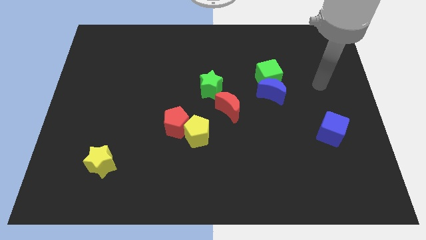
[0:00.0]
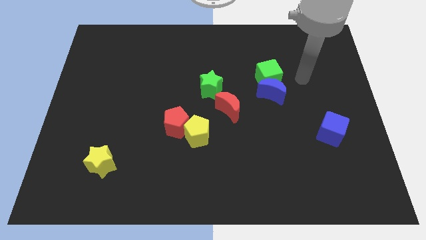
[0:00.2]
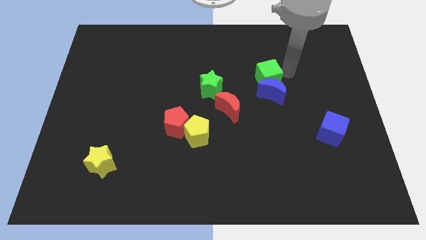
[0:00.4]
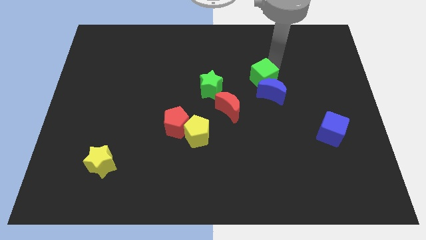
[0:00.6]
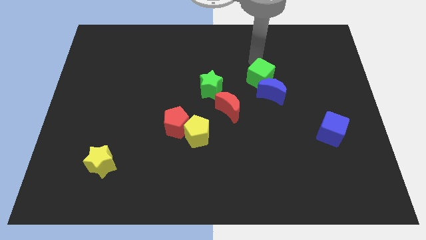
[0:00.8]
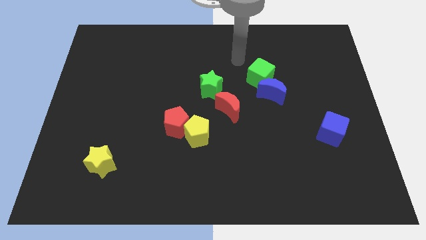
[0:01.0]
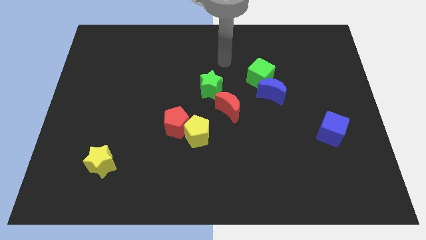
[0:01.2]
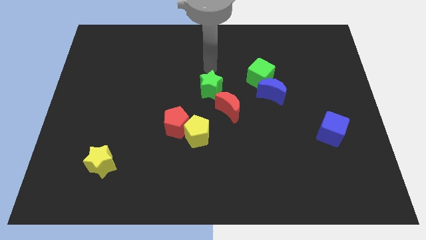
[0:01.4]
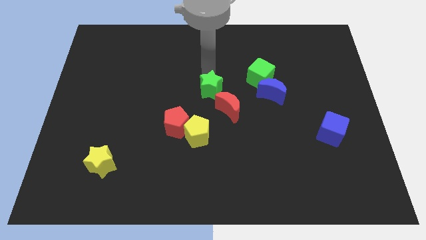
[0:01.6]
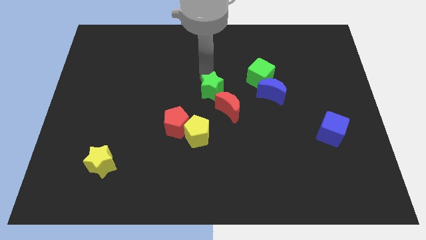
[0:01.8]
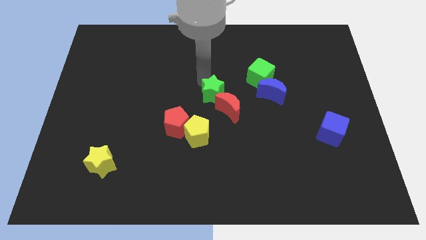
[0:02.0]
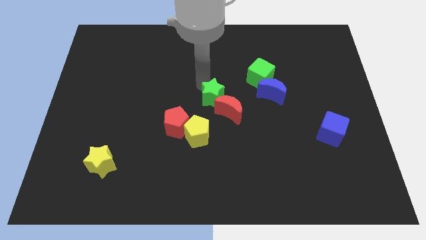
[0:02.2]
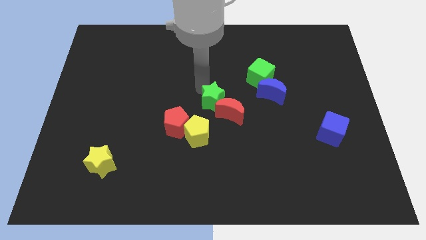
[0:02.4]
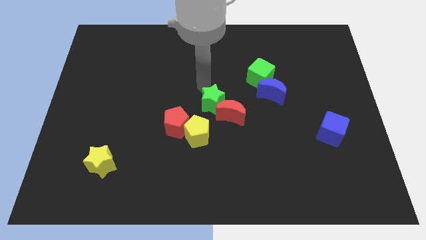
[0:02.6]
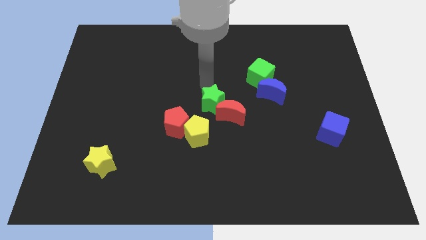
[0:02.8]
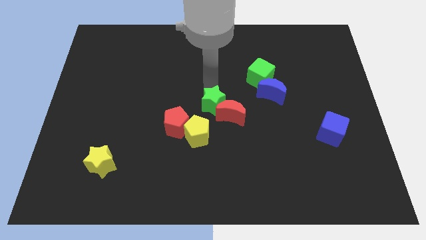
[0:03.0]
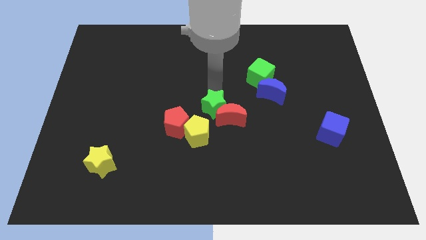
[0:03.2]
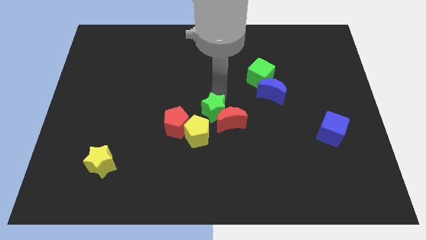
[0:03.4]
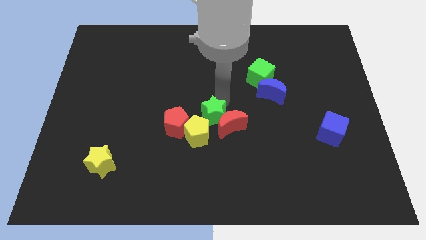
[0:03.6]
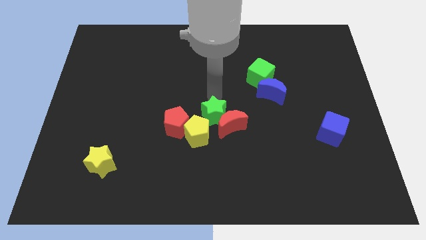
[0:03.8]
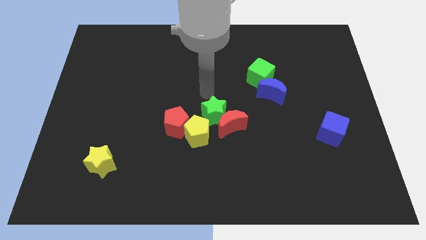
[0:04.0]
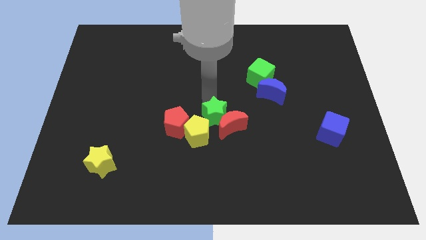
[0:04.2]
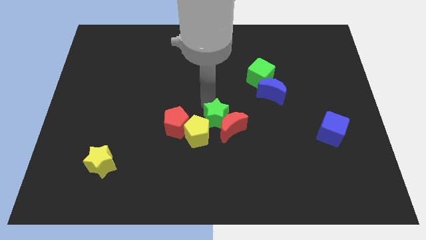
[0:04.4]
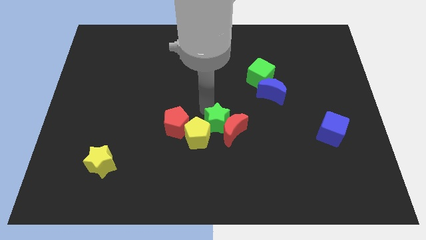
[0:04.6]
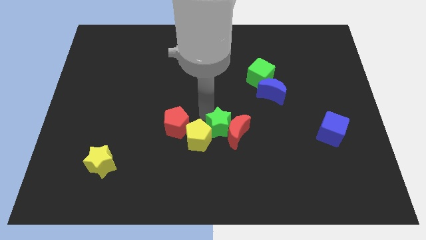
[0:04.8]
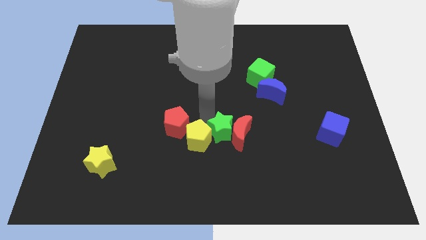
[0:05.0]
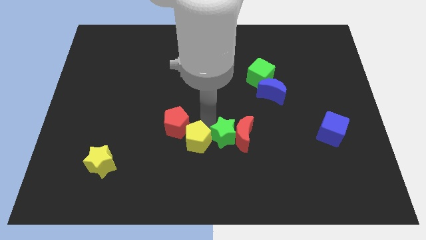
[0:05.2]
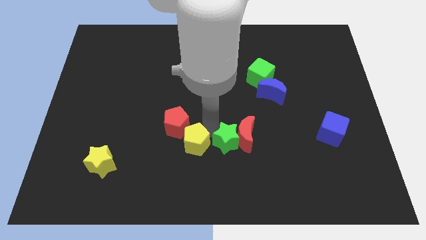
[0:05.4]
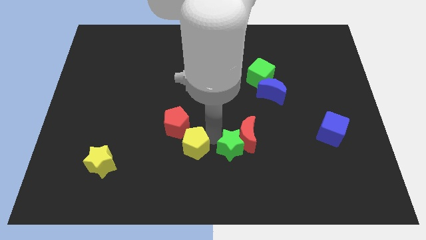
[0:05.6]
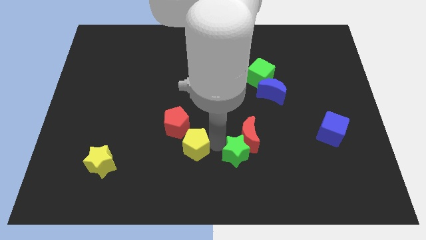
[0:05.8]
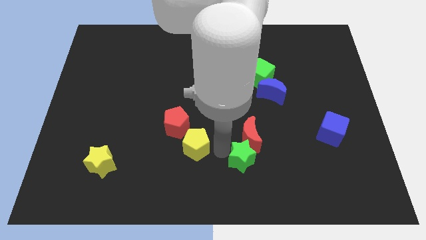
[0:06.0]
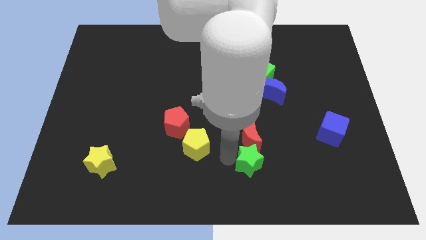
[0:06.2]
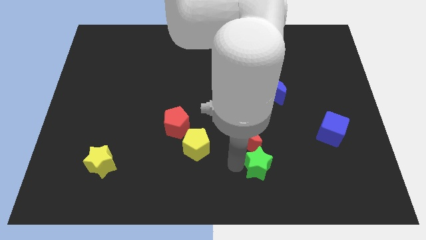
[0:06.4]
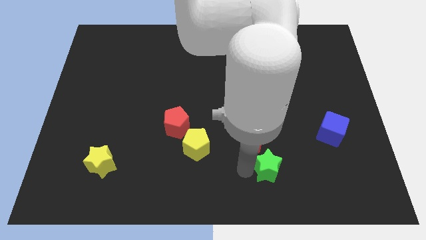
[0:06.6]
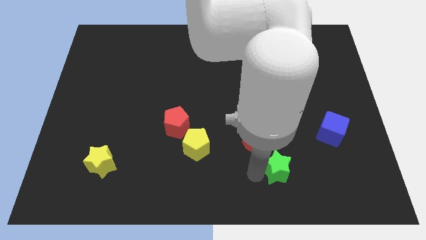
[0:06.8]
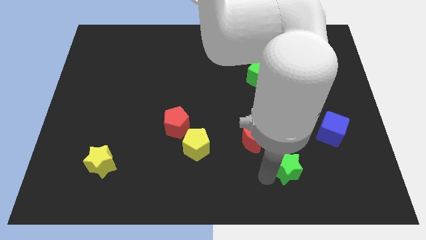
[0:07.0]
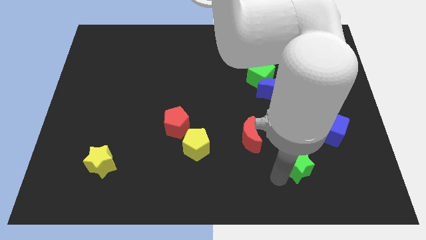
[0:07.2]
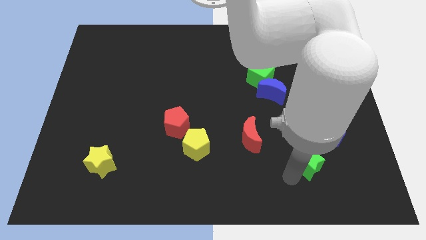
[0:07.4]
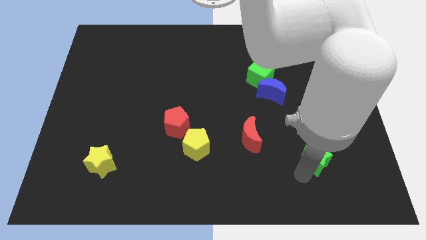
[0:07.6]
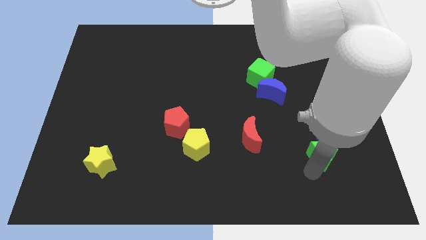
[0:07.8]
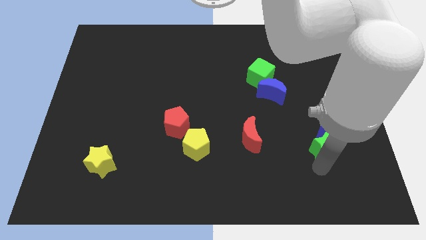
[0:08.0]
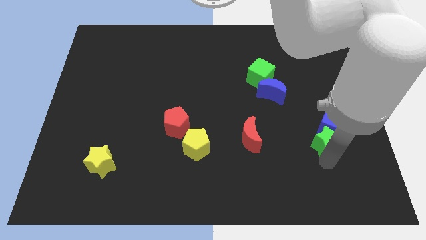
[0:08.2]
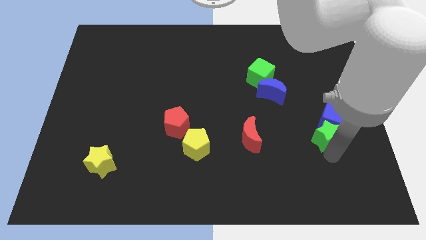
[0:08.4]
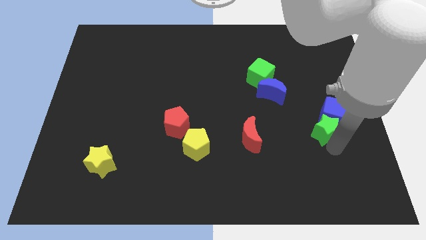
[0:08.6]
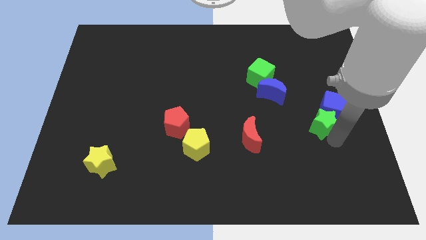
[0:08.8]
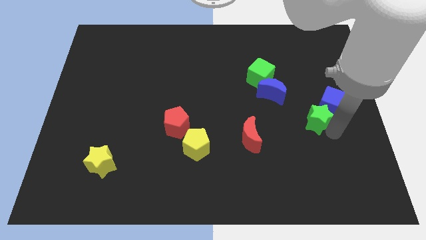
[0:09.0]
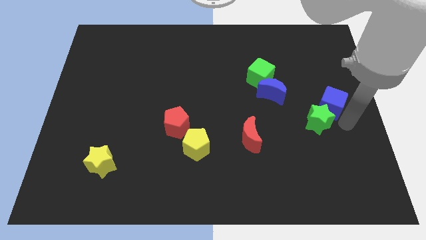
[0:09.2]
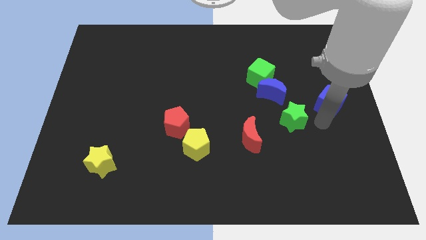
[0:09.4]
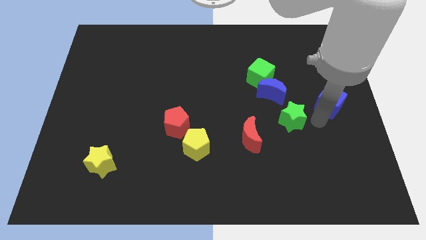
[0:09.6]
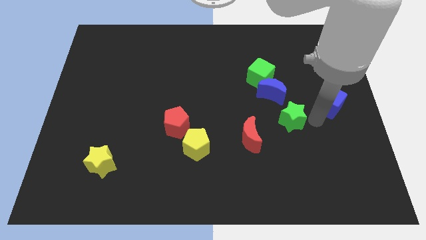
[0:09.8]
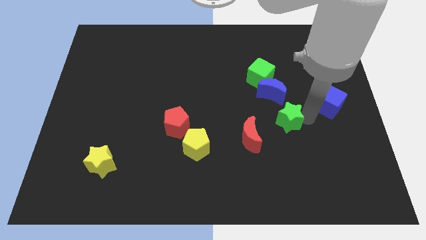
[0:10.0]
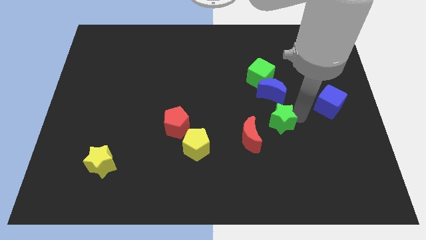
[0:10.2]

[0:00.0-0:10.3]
move the green star to the bottom side of the green cube

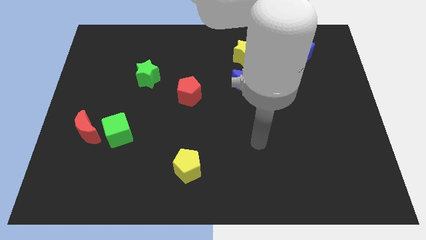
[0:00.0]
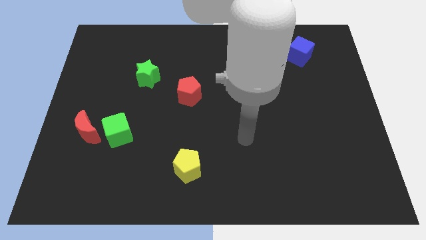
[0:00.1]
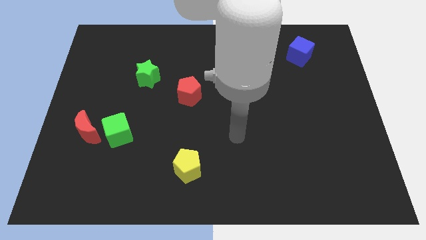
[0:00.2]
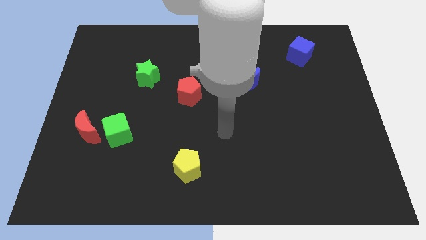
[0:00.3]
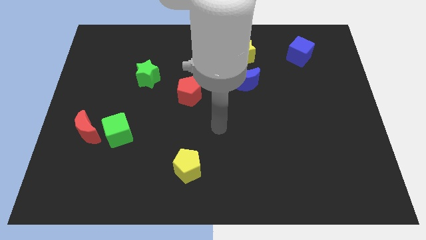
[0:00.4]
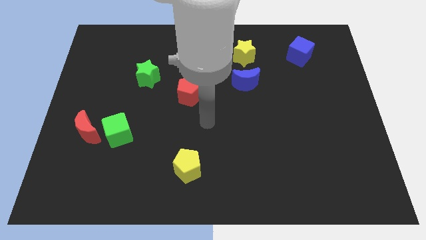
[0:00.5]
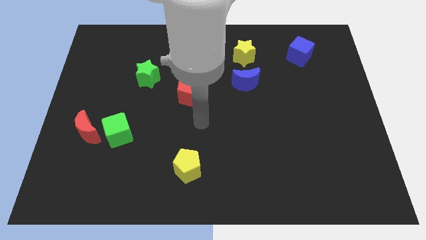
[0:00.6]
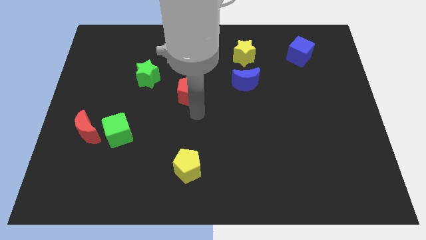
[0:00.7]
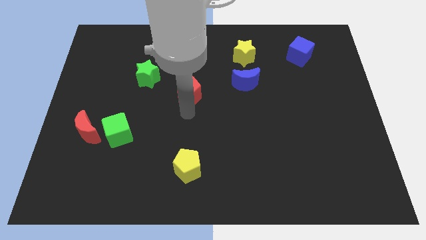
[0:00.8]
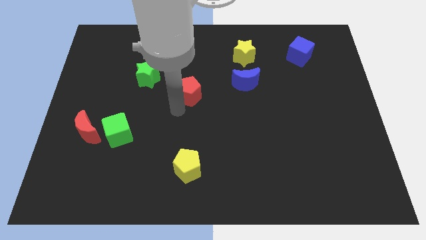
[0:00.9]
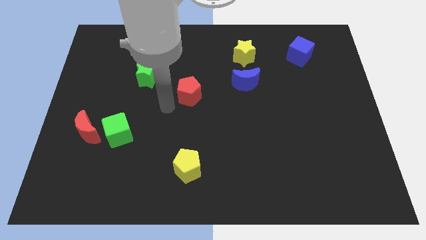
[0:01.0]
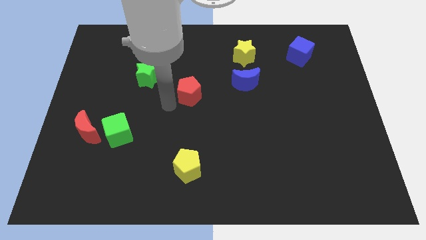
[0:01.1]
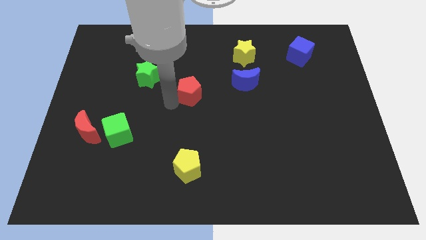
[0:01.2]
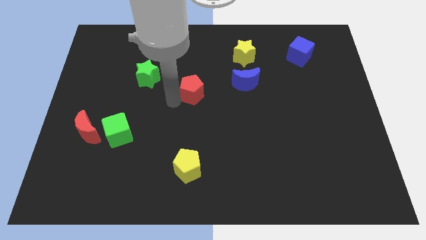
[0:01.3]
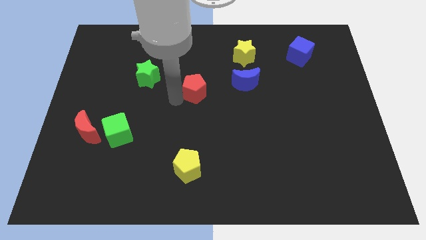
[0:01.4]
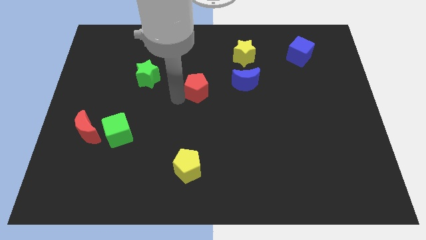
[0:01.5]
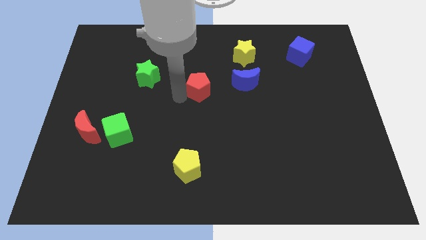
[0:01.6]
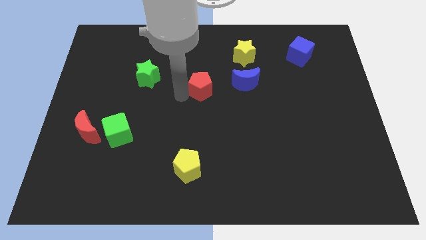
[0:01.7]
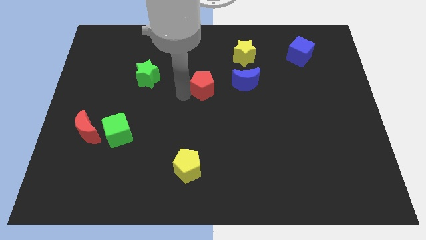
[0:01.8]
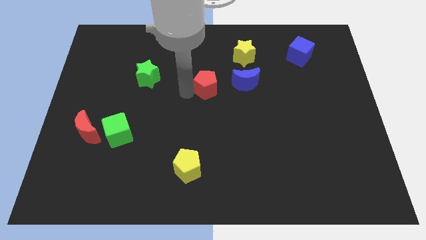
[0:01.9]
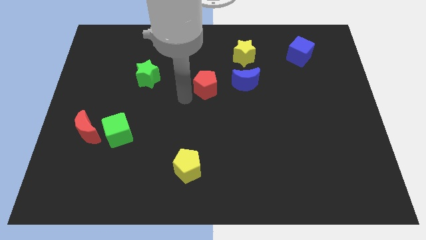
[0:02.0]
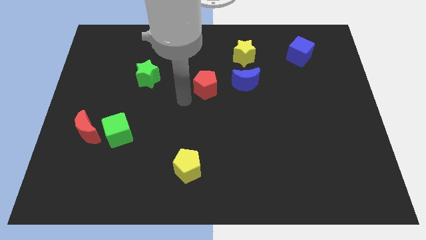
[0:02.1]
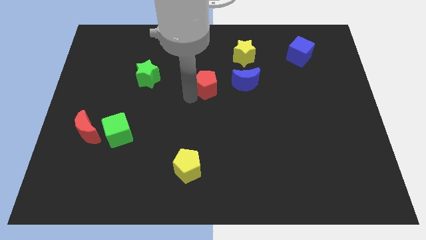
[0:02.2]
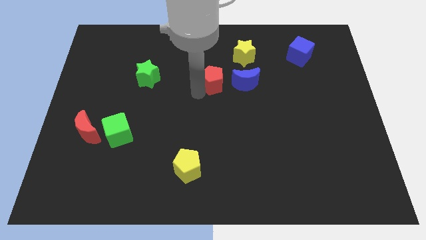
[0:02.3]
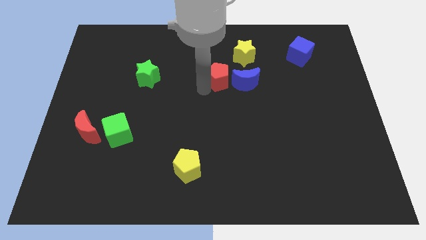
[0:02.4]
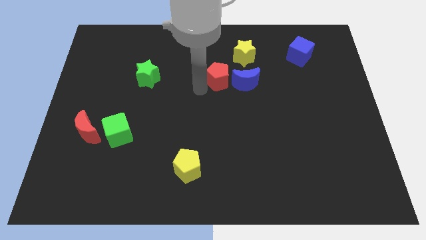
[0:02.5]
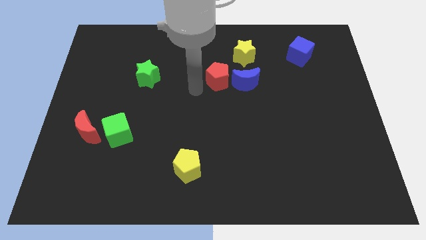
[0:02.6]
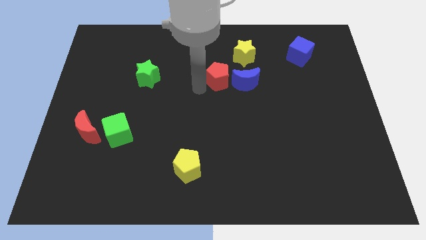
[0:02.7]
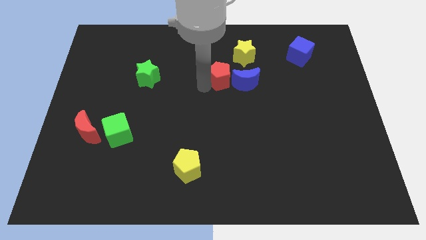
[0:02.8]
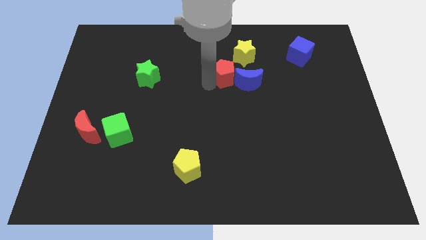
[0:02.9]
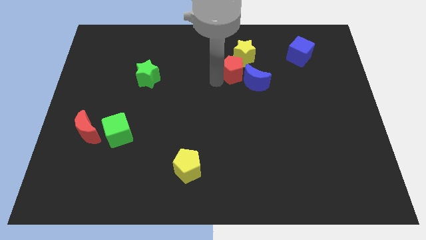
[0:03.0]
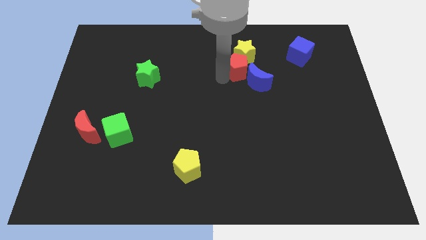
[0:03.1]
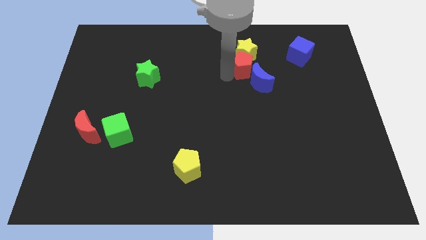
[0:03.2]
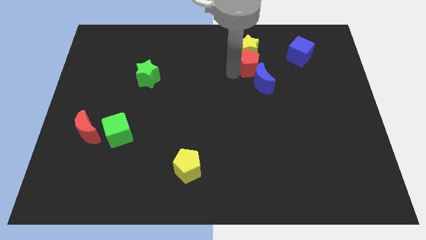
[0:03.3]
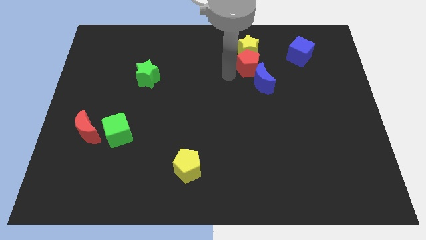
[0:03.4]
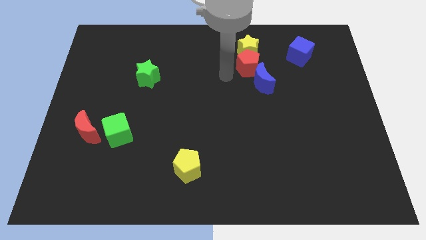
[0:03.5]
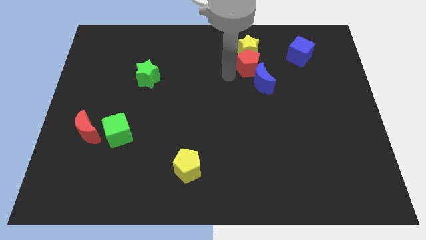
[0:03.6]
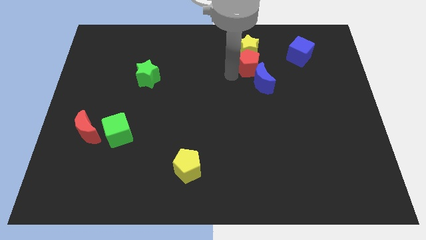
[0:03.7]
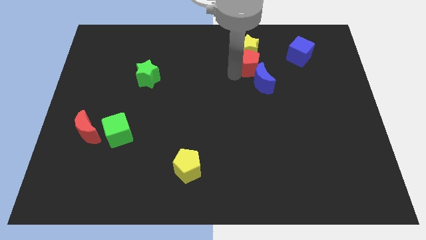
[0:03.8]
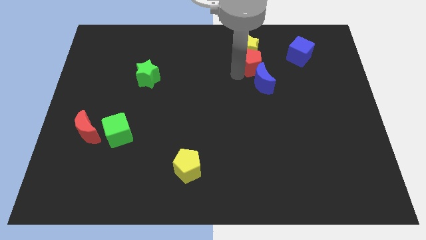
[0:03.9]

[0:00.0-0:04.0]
move the red pentagon to the left side of the blue cube
